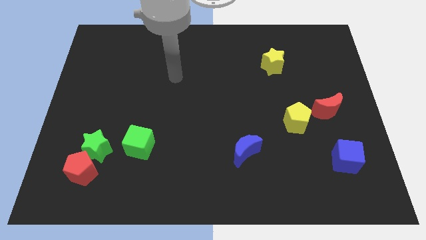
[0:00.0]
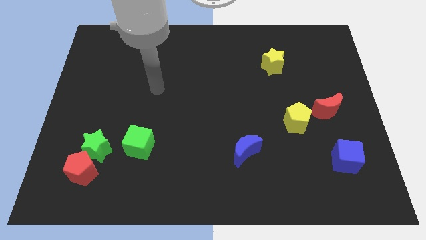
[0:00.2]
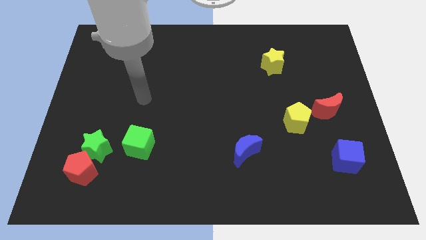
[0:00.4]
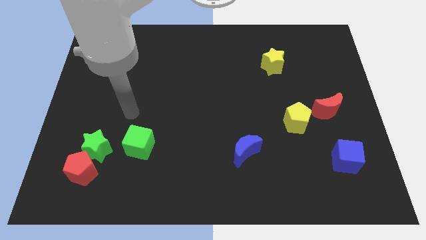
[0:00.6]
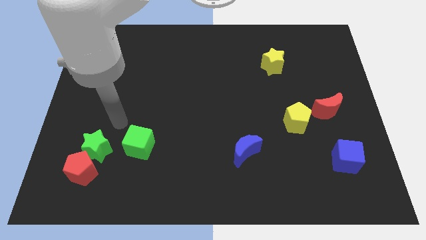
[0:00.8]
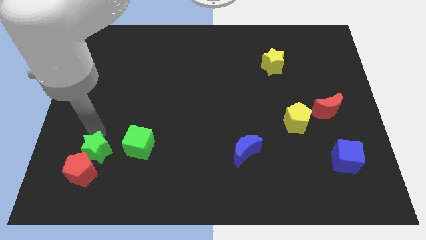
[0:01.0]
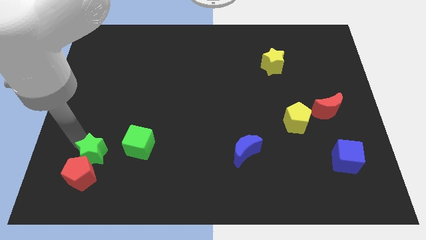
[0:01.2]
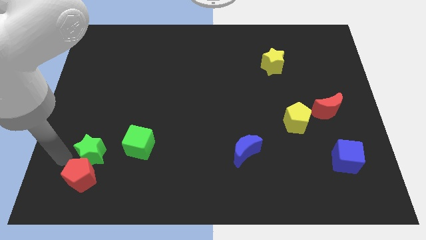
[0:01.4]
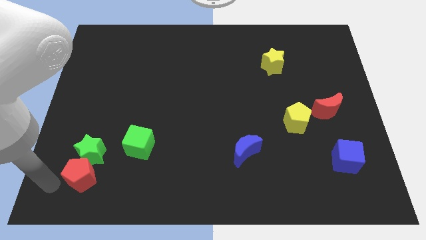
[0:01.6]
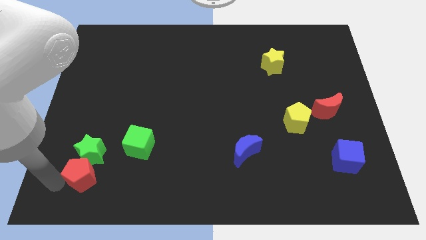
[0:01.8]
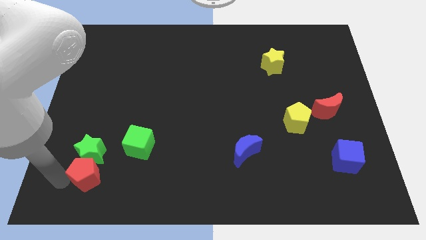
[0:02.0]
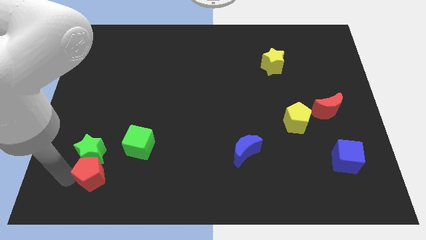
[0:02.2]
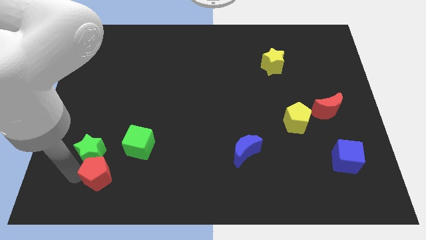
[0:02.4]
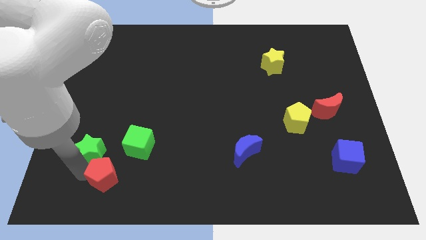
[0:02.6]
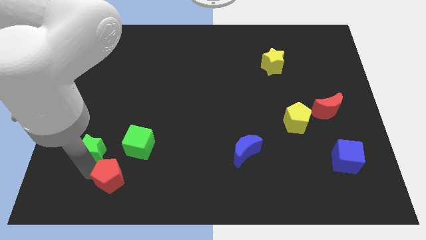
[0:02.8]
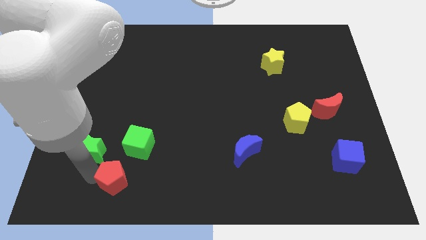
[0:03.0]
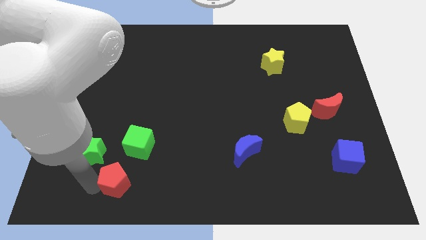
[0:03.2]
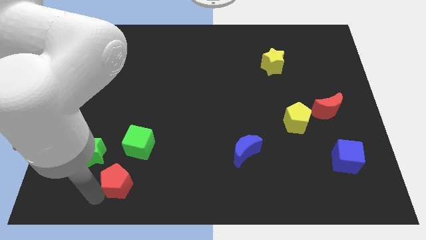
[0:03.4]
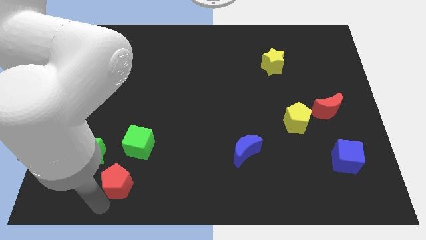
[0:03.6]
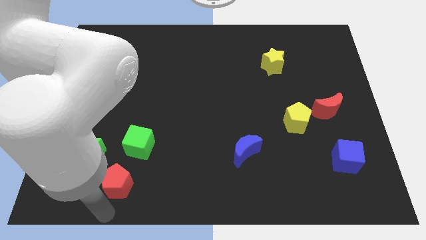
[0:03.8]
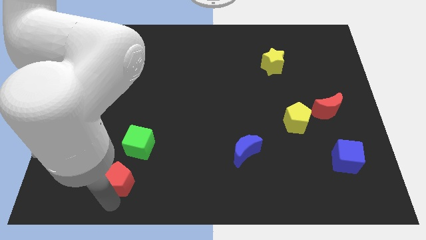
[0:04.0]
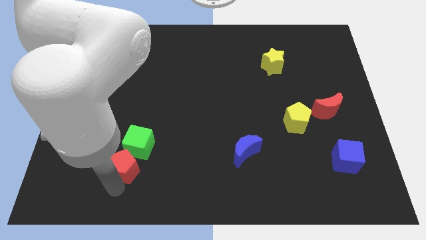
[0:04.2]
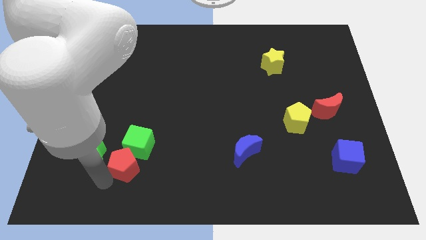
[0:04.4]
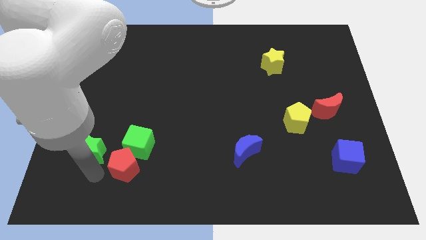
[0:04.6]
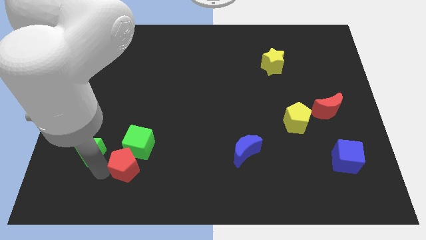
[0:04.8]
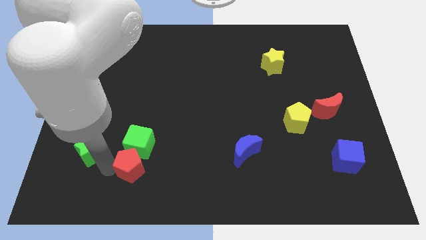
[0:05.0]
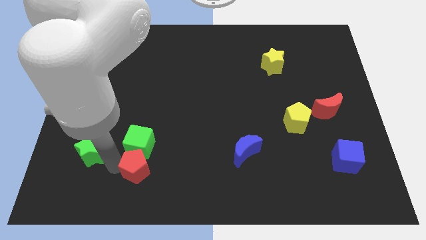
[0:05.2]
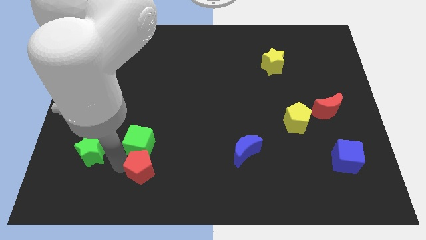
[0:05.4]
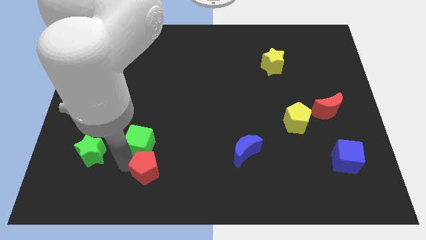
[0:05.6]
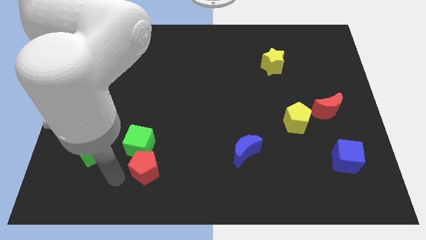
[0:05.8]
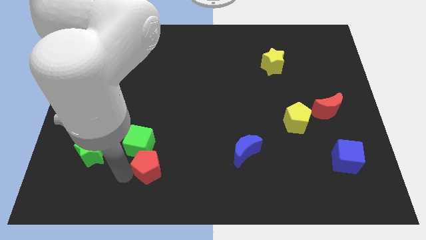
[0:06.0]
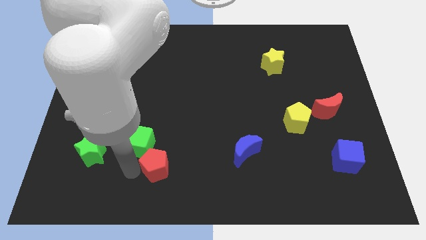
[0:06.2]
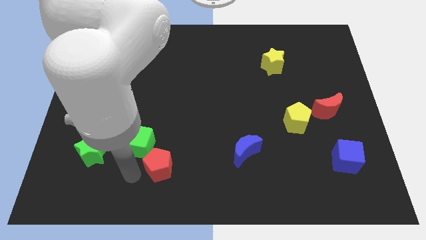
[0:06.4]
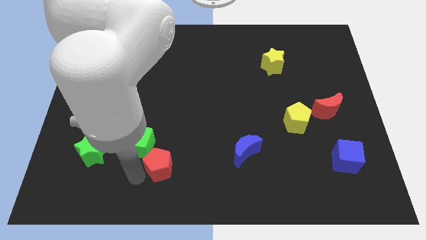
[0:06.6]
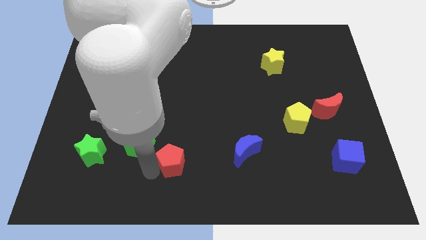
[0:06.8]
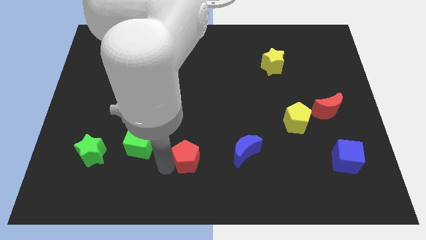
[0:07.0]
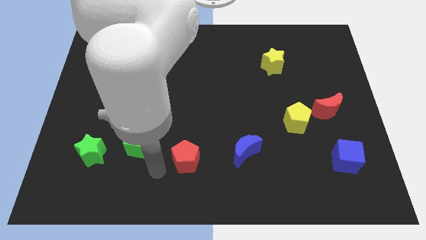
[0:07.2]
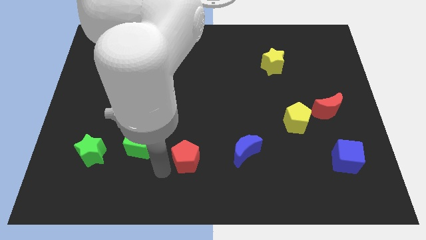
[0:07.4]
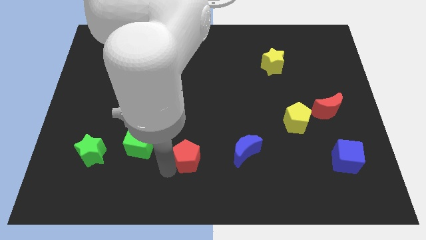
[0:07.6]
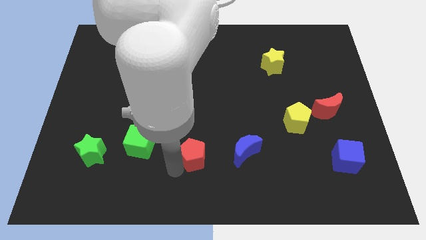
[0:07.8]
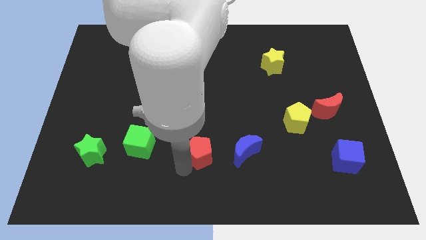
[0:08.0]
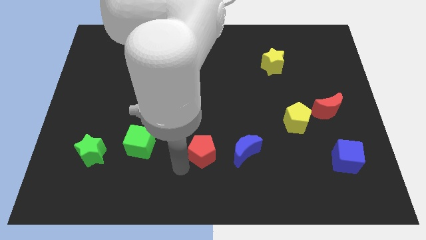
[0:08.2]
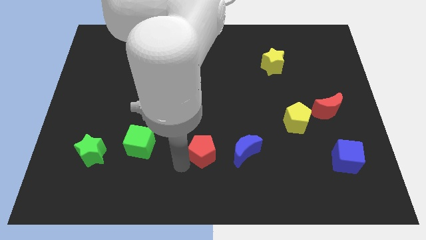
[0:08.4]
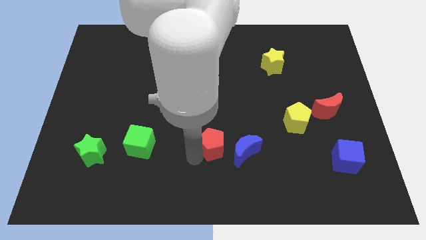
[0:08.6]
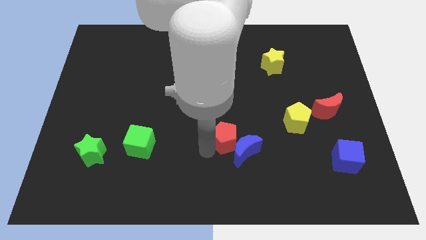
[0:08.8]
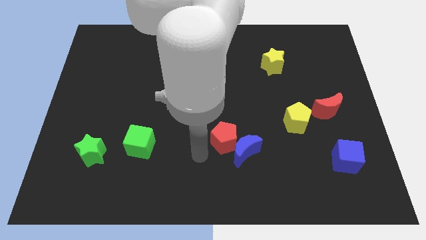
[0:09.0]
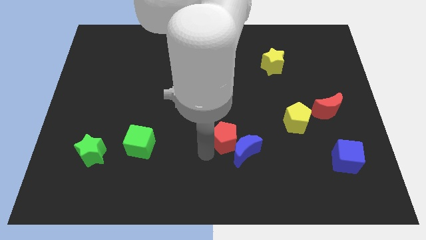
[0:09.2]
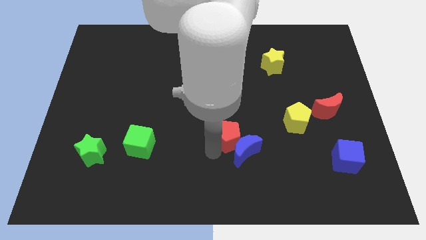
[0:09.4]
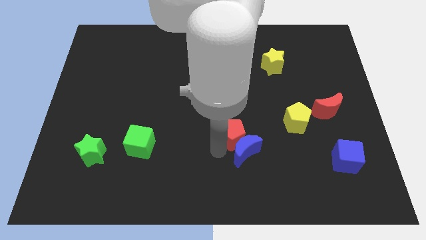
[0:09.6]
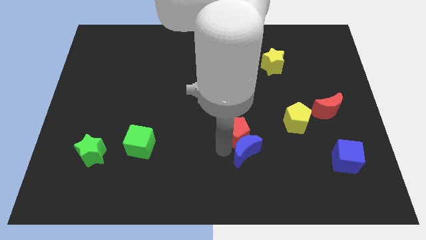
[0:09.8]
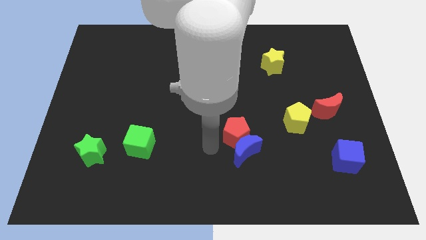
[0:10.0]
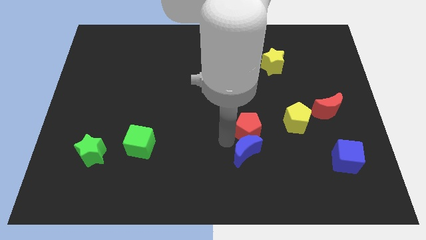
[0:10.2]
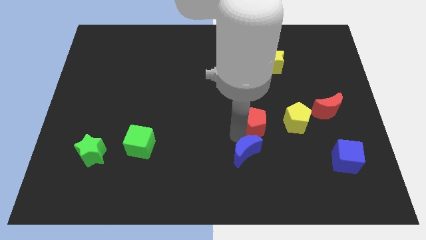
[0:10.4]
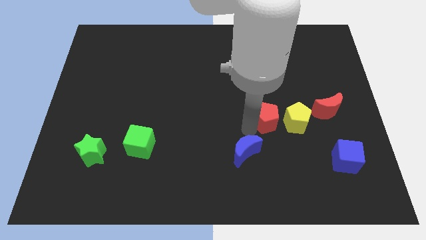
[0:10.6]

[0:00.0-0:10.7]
move the red pentagon to the left side of the red moon

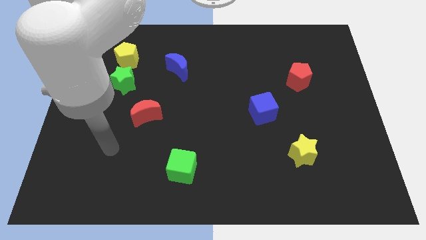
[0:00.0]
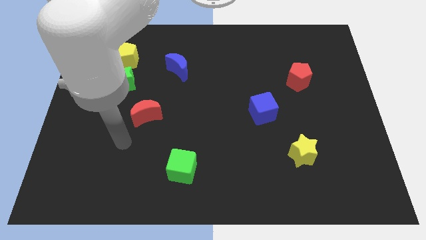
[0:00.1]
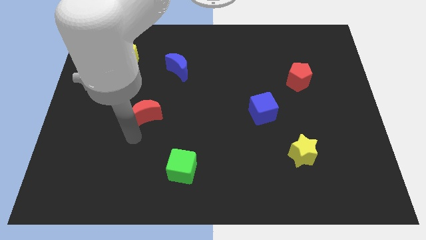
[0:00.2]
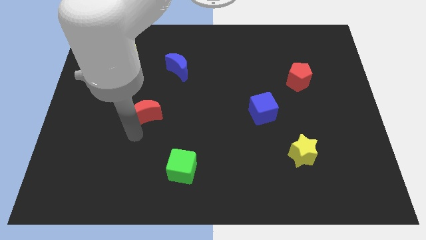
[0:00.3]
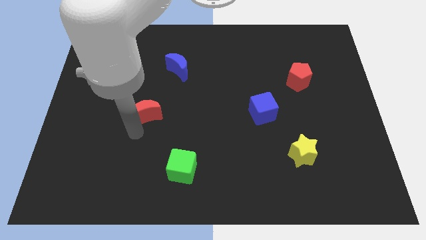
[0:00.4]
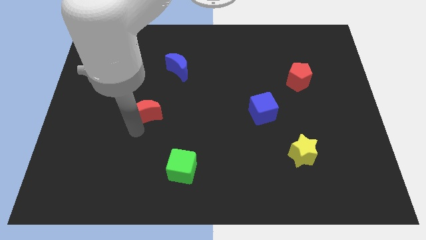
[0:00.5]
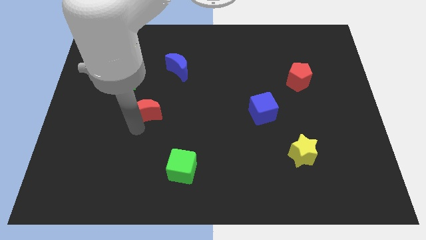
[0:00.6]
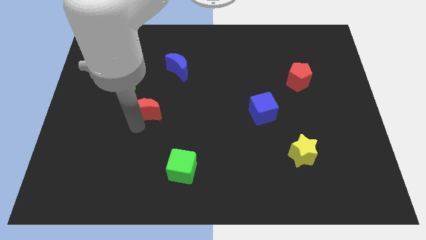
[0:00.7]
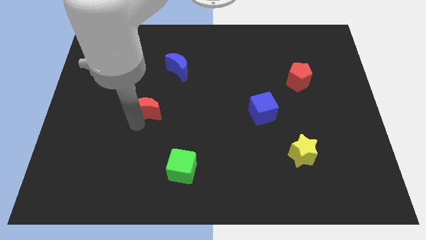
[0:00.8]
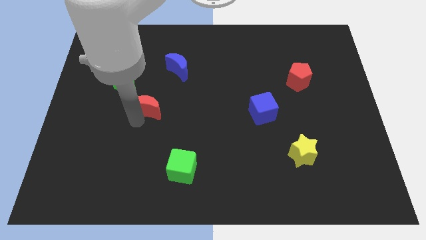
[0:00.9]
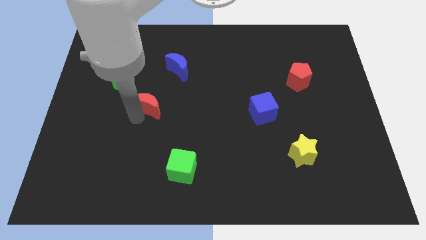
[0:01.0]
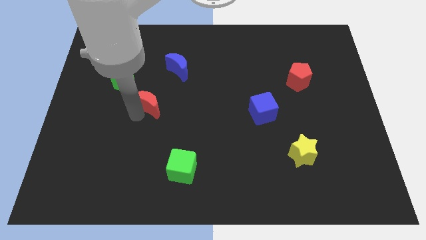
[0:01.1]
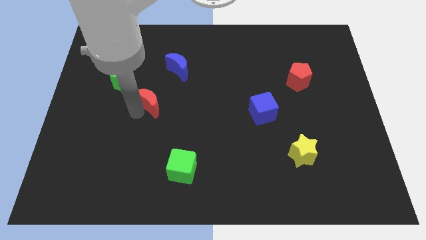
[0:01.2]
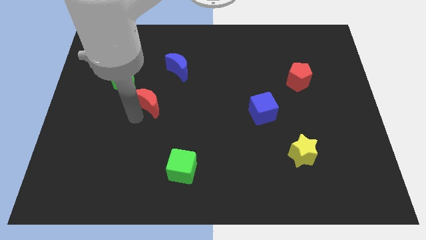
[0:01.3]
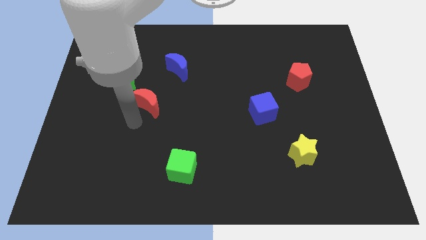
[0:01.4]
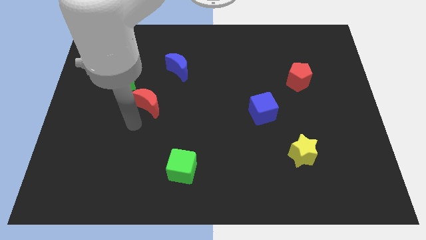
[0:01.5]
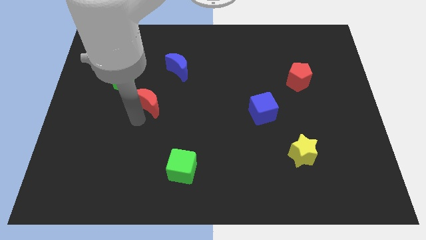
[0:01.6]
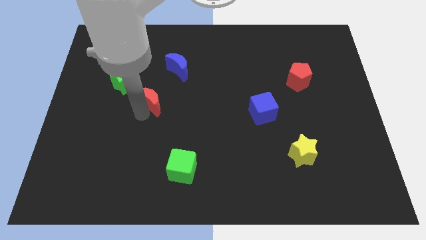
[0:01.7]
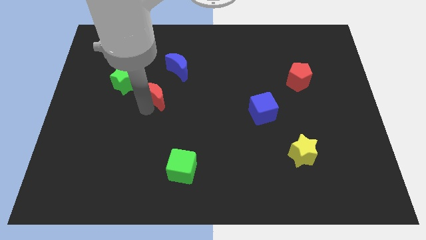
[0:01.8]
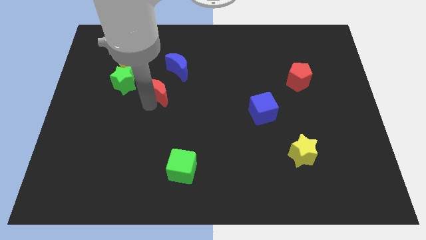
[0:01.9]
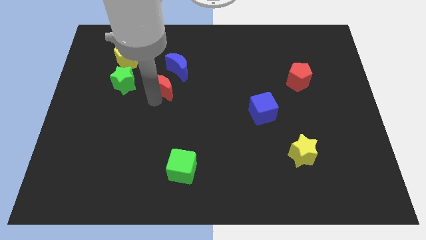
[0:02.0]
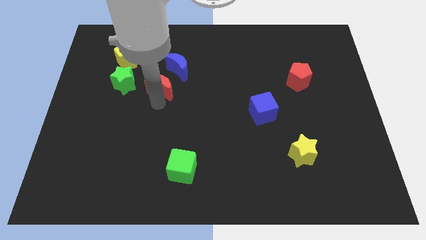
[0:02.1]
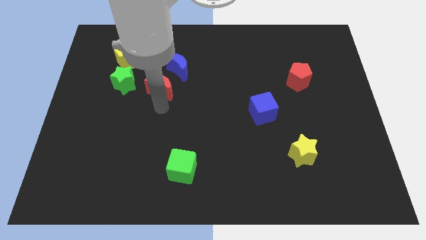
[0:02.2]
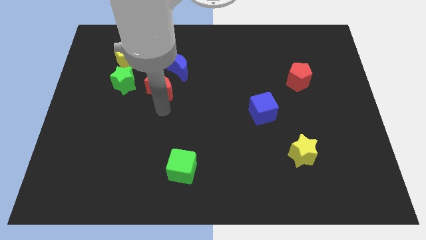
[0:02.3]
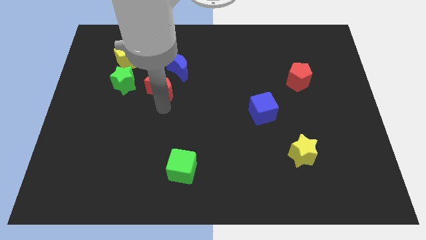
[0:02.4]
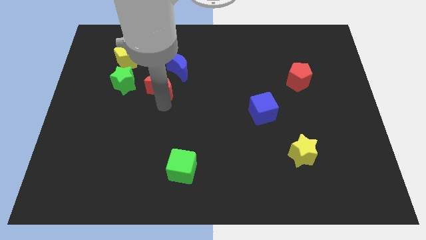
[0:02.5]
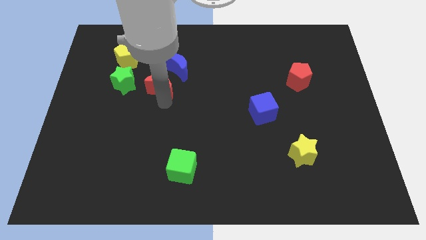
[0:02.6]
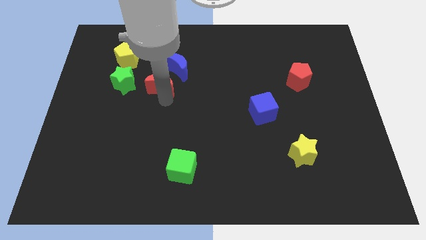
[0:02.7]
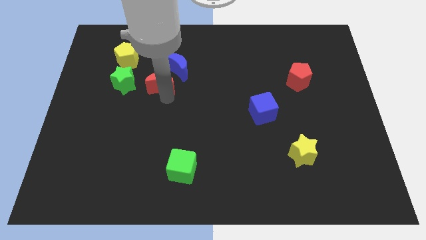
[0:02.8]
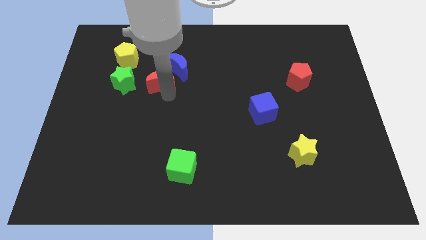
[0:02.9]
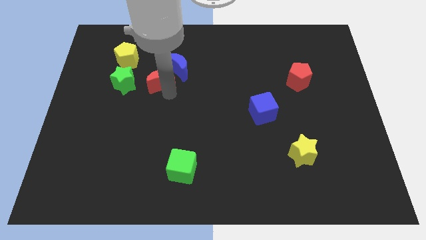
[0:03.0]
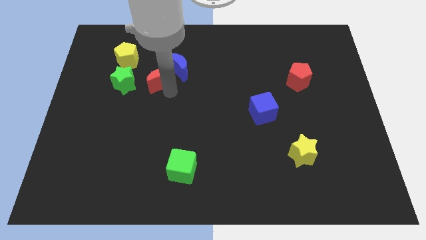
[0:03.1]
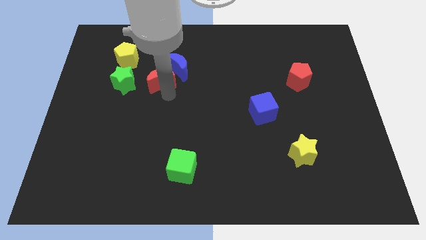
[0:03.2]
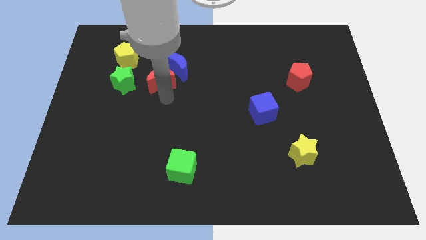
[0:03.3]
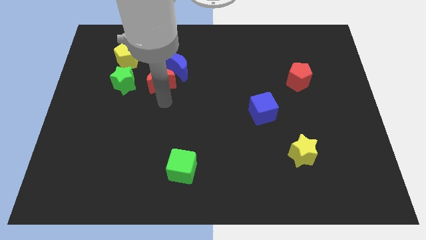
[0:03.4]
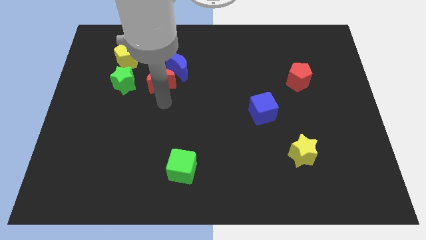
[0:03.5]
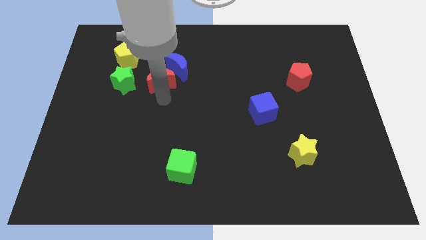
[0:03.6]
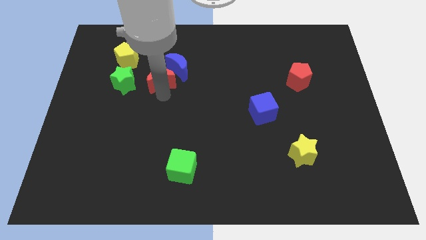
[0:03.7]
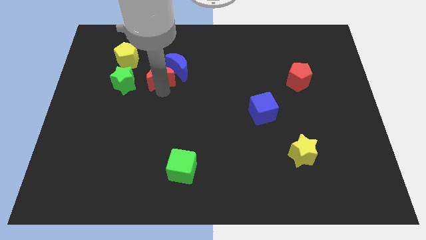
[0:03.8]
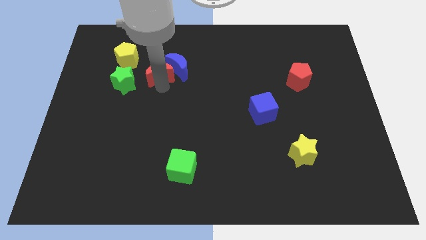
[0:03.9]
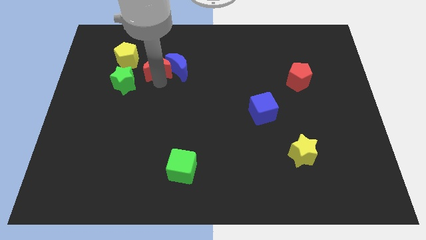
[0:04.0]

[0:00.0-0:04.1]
put the red moon right of the yellow pentagon
